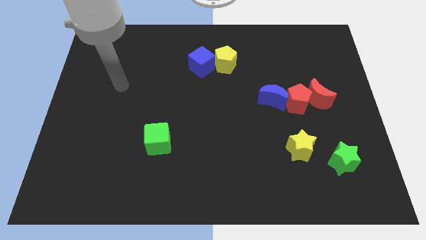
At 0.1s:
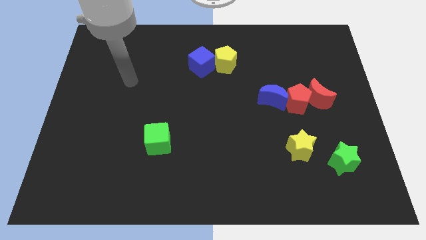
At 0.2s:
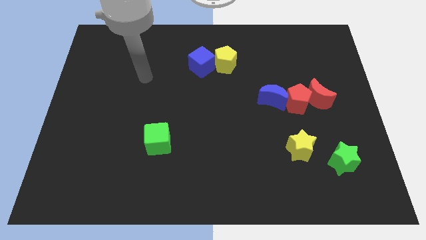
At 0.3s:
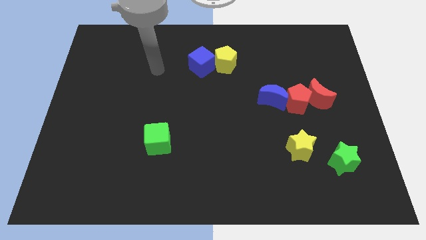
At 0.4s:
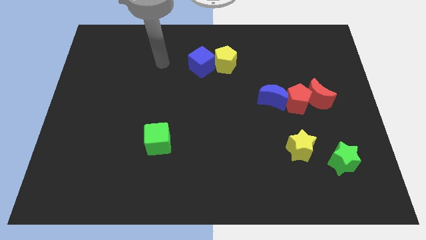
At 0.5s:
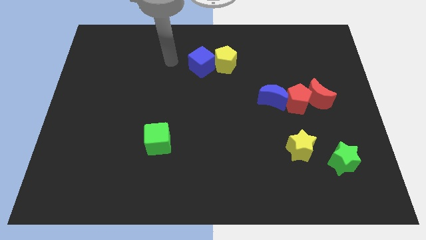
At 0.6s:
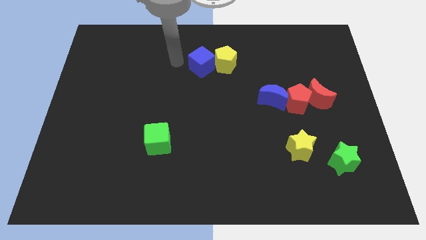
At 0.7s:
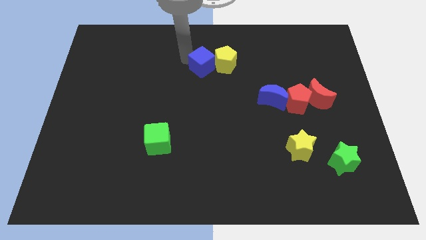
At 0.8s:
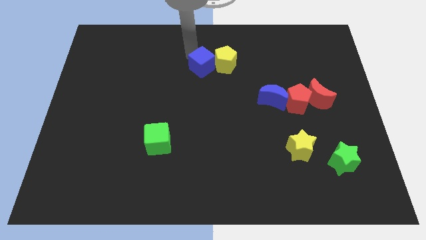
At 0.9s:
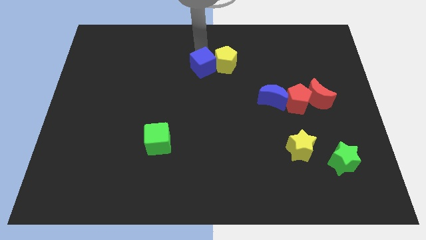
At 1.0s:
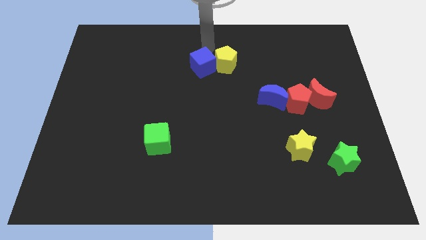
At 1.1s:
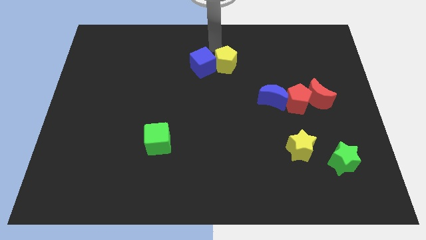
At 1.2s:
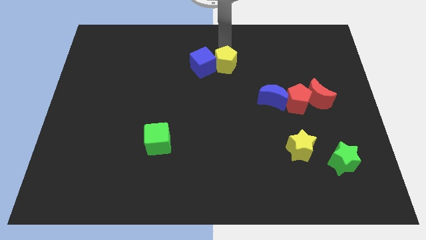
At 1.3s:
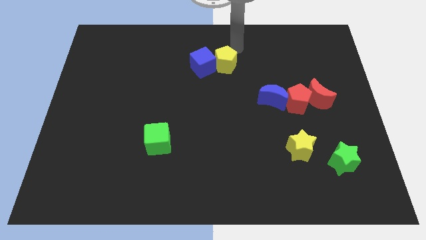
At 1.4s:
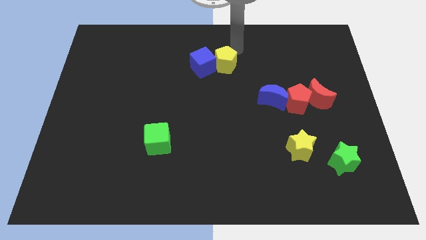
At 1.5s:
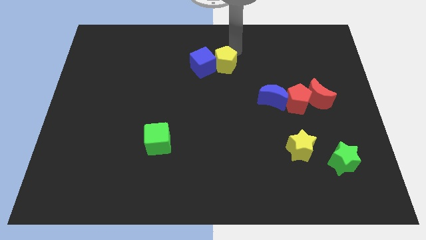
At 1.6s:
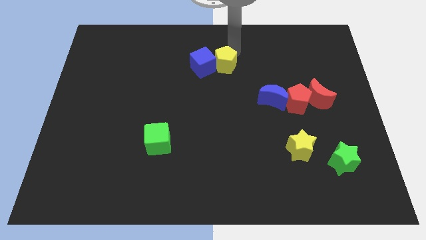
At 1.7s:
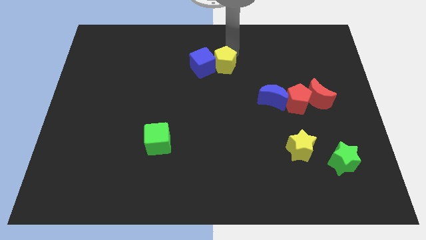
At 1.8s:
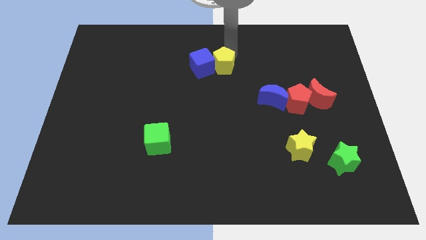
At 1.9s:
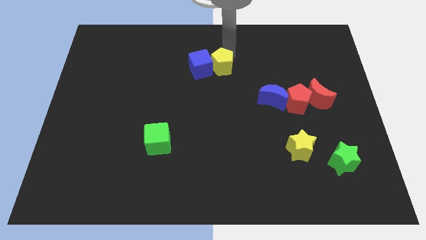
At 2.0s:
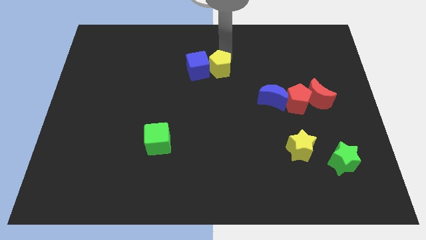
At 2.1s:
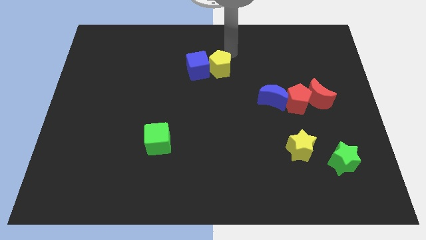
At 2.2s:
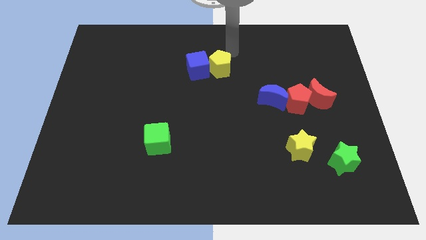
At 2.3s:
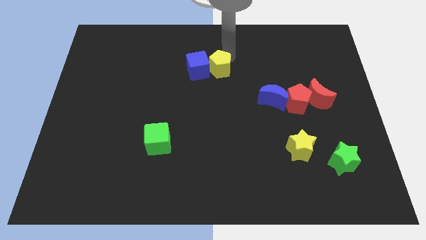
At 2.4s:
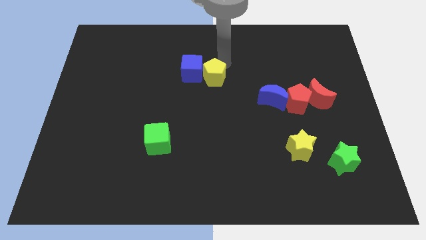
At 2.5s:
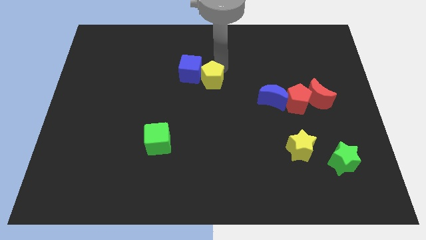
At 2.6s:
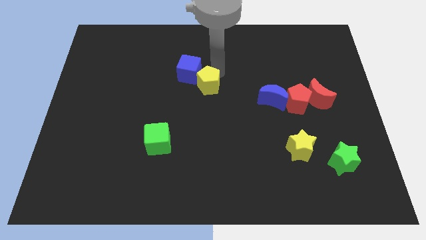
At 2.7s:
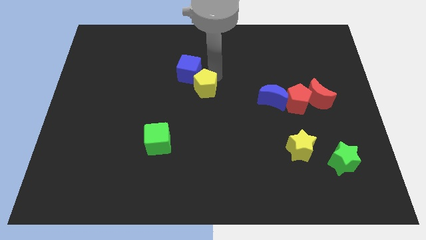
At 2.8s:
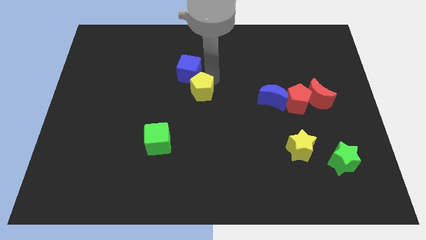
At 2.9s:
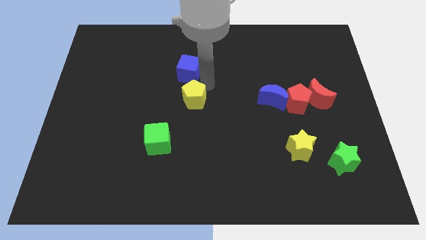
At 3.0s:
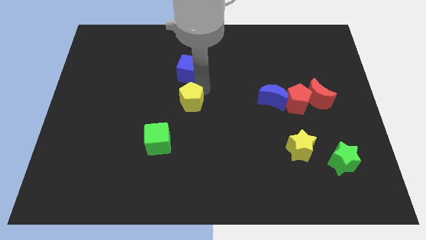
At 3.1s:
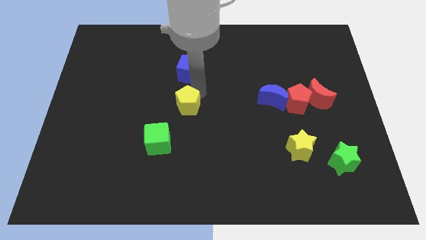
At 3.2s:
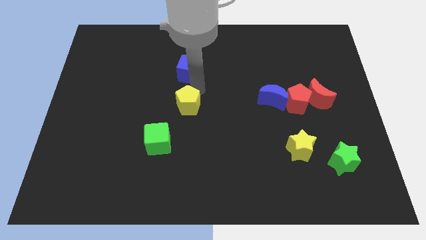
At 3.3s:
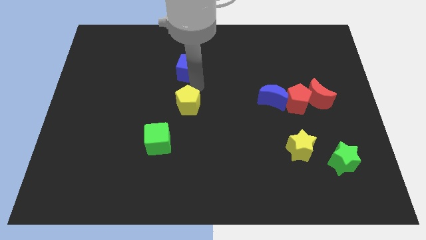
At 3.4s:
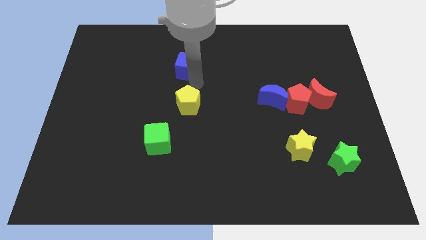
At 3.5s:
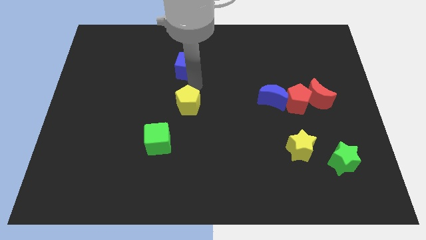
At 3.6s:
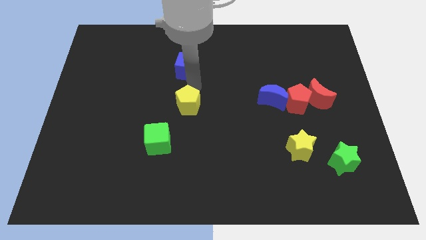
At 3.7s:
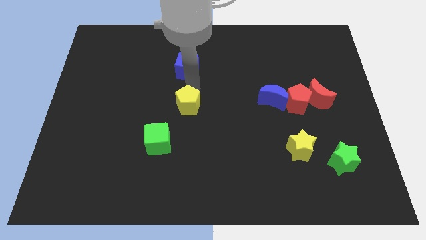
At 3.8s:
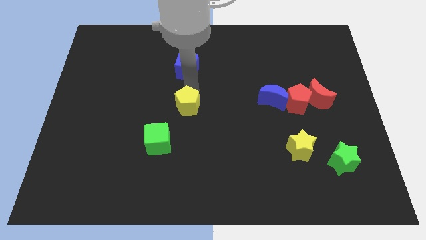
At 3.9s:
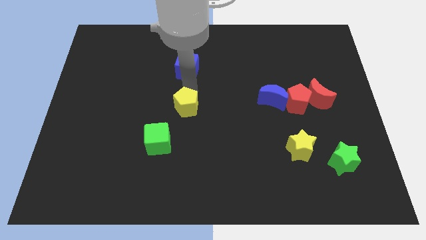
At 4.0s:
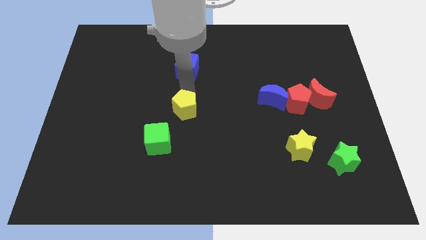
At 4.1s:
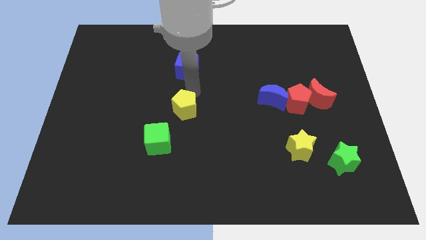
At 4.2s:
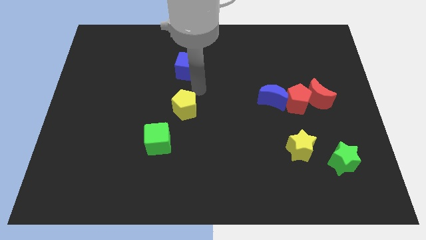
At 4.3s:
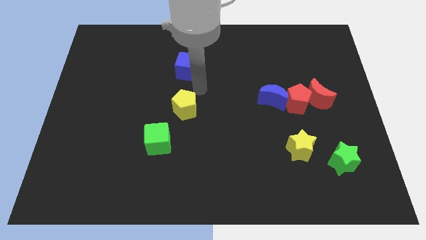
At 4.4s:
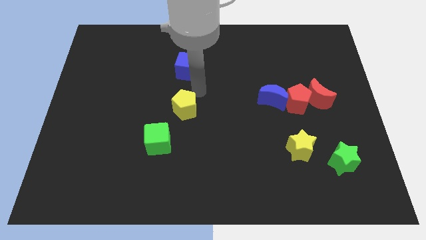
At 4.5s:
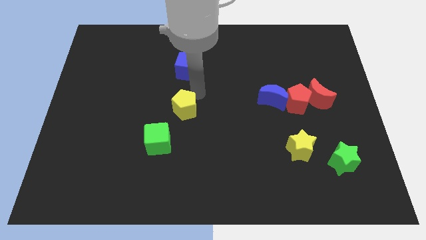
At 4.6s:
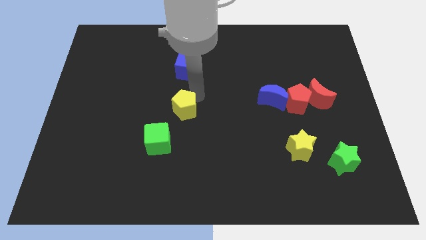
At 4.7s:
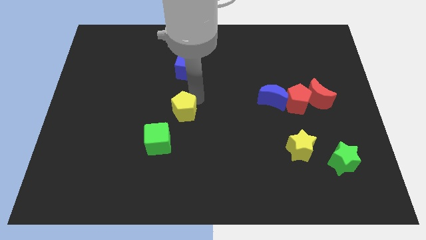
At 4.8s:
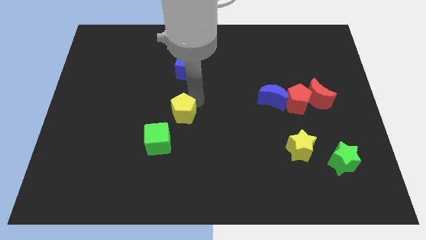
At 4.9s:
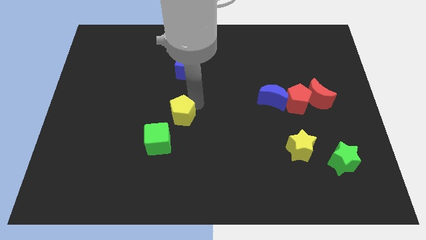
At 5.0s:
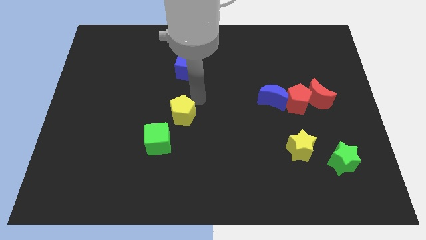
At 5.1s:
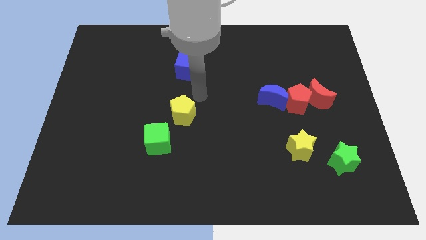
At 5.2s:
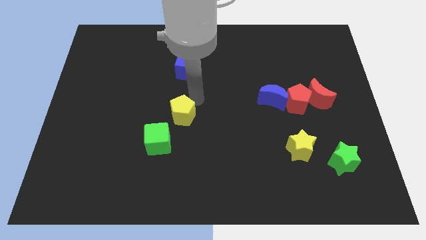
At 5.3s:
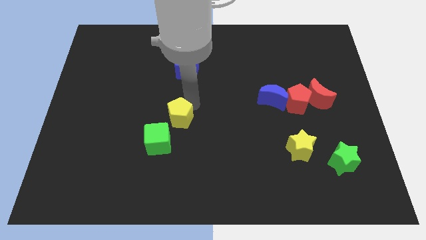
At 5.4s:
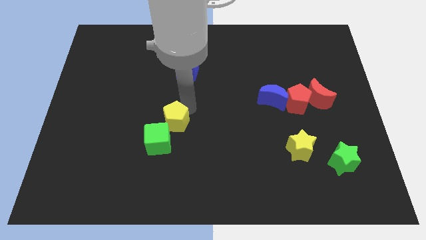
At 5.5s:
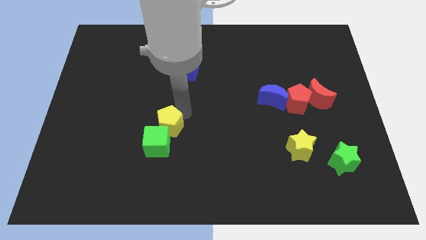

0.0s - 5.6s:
move the yellow pentagon towards the green cube

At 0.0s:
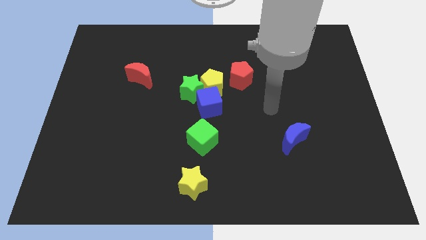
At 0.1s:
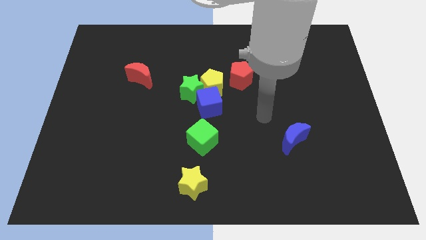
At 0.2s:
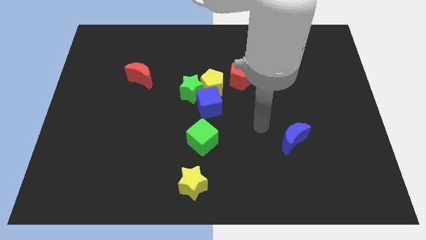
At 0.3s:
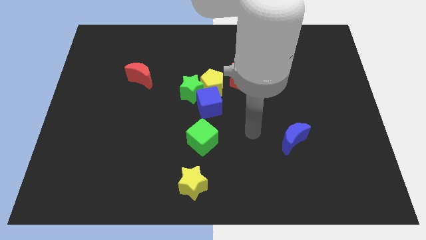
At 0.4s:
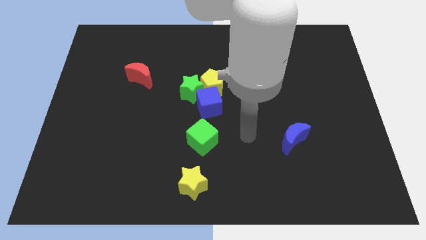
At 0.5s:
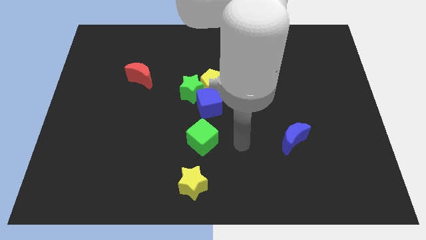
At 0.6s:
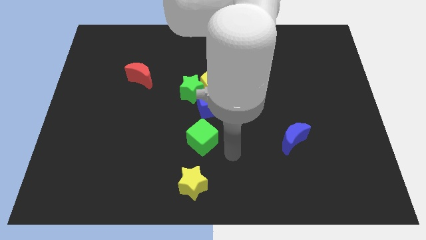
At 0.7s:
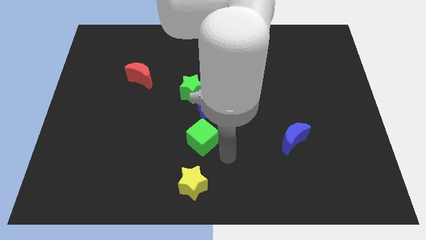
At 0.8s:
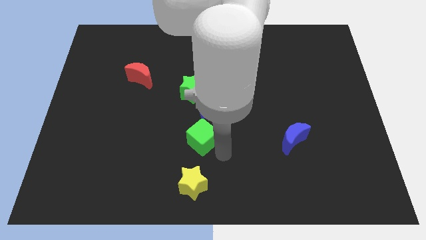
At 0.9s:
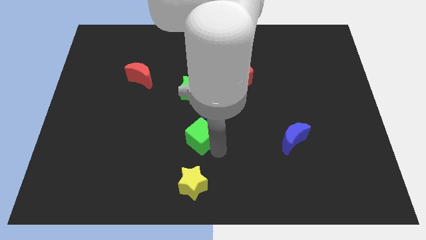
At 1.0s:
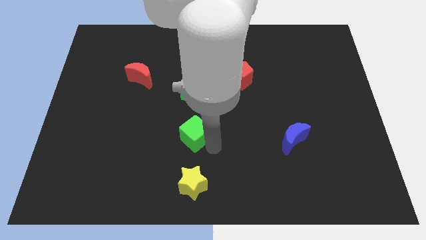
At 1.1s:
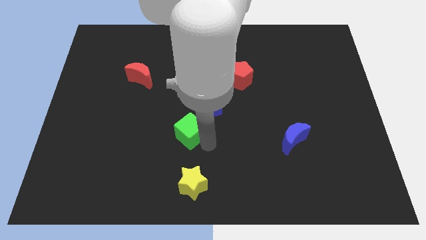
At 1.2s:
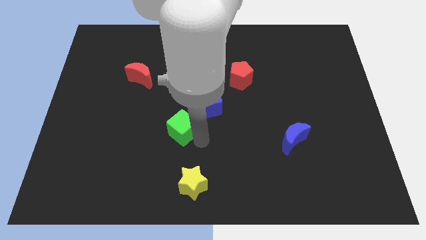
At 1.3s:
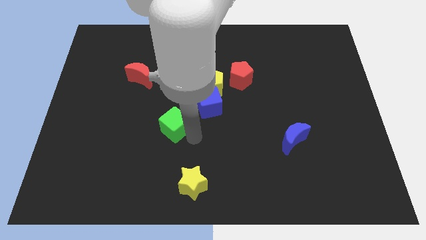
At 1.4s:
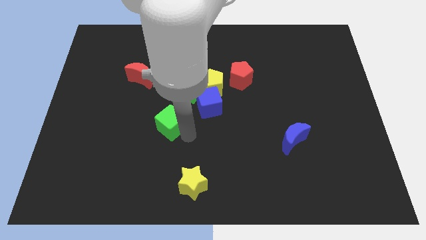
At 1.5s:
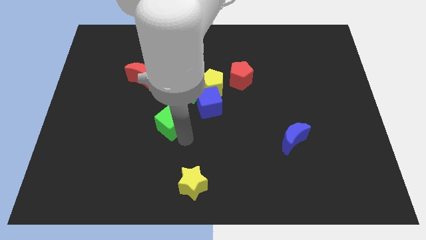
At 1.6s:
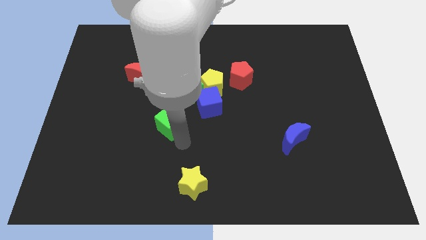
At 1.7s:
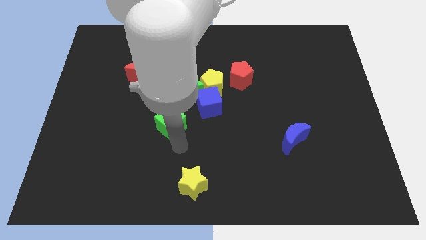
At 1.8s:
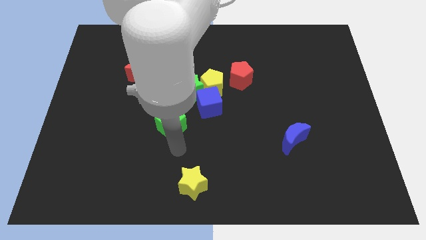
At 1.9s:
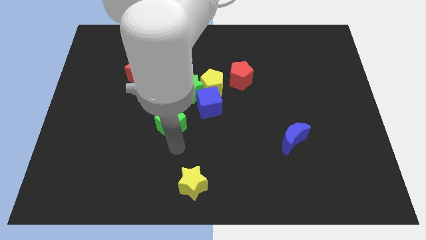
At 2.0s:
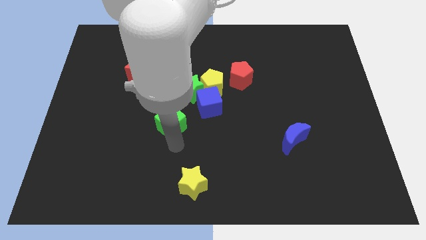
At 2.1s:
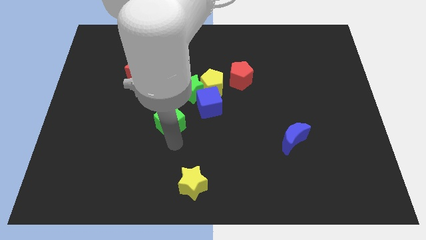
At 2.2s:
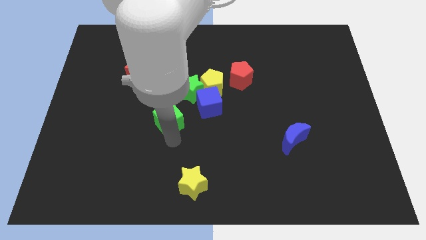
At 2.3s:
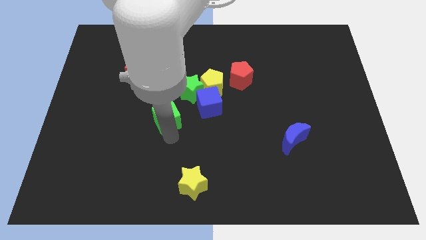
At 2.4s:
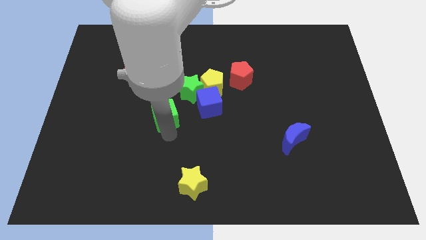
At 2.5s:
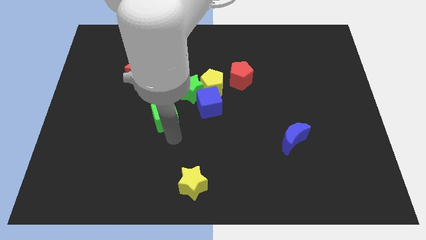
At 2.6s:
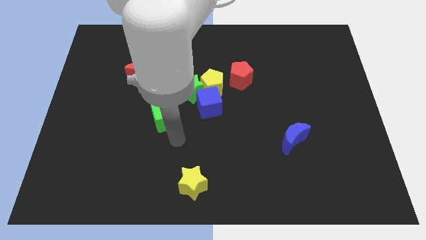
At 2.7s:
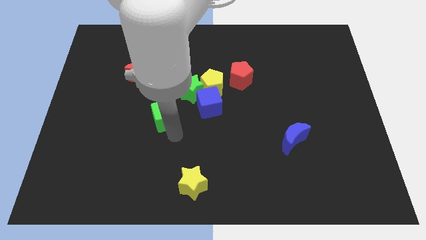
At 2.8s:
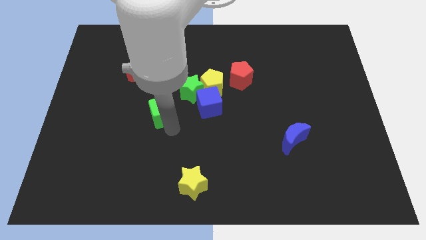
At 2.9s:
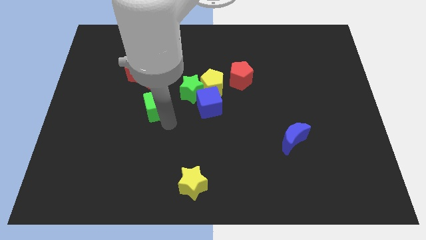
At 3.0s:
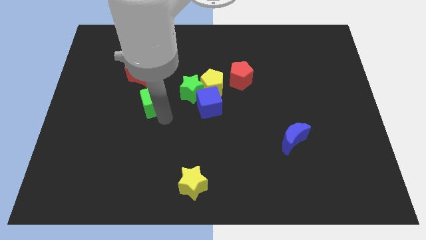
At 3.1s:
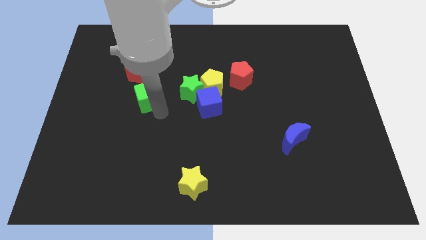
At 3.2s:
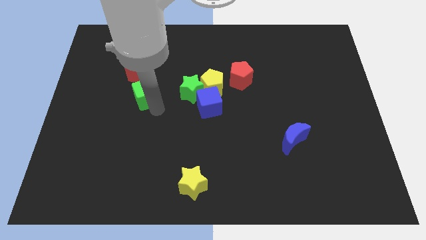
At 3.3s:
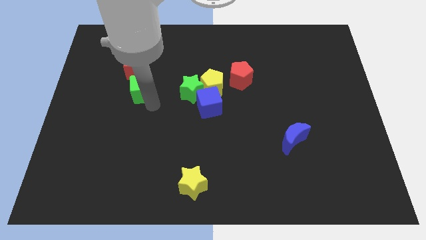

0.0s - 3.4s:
move the green cube close to the red moon
